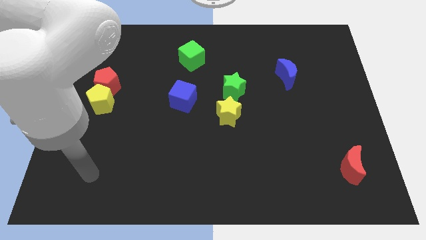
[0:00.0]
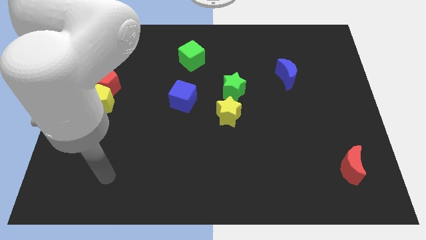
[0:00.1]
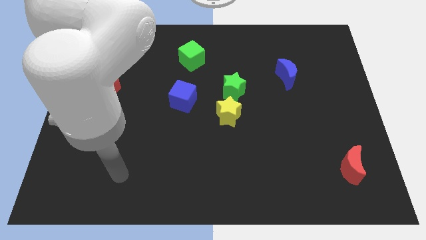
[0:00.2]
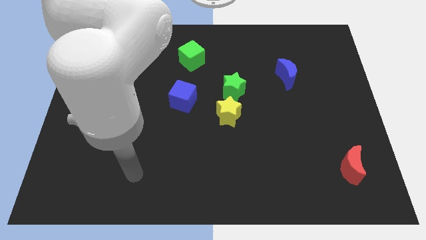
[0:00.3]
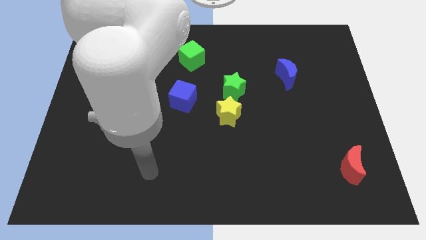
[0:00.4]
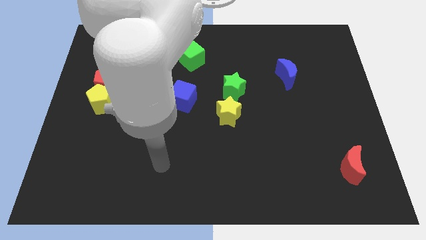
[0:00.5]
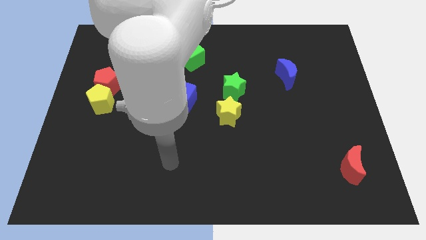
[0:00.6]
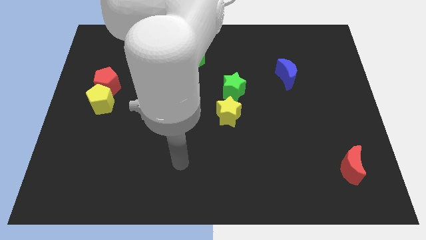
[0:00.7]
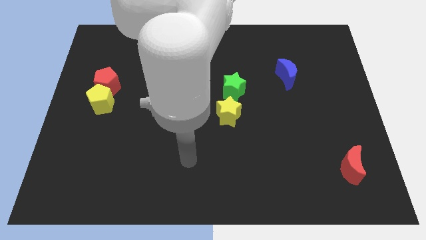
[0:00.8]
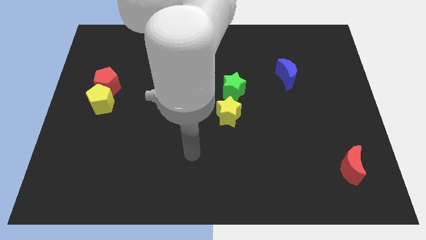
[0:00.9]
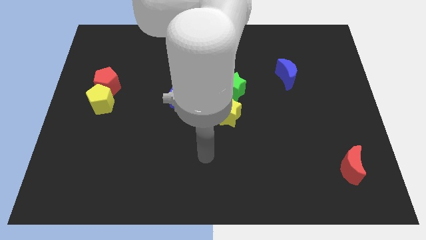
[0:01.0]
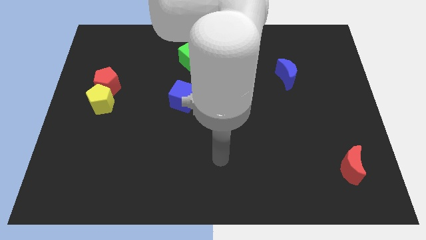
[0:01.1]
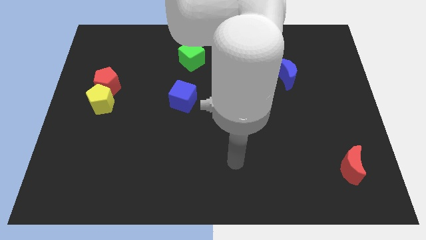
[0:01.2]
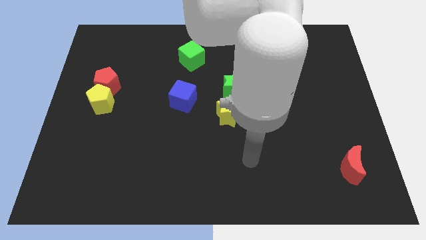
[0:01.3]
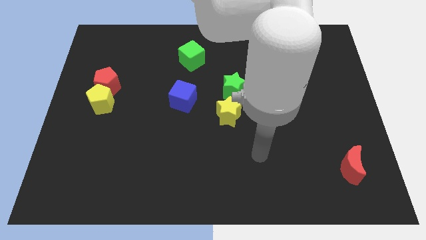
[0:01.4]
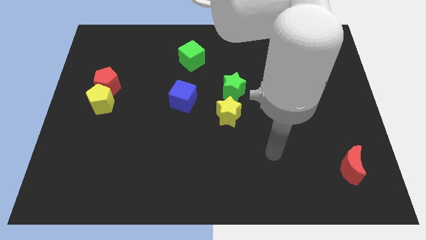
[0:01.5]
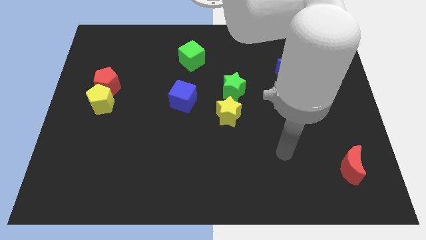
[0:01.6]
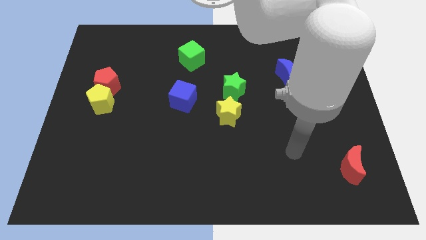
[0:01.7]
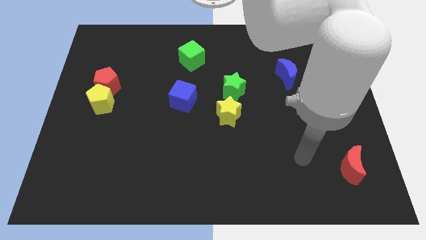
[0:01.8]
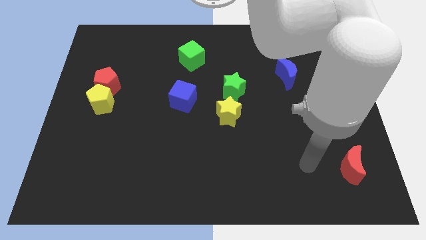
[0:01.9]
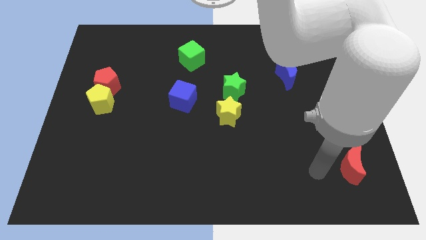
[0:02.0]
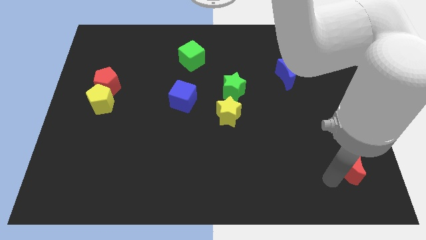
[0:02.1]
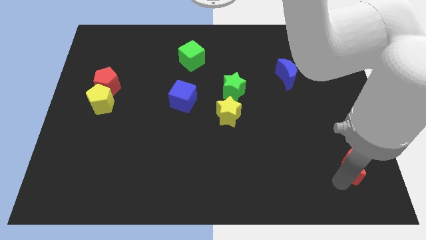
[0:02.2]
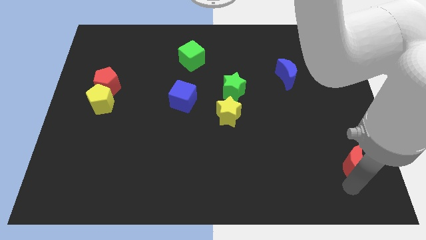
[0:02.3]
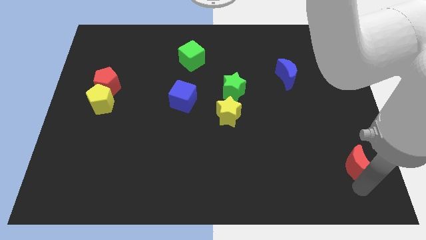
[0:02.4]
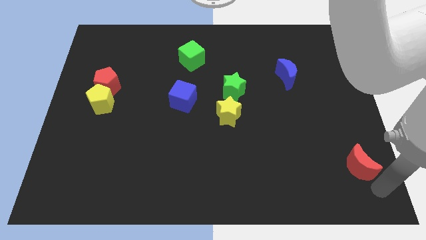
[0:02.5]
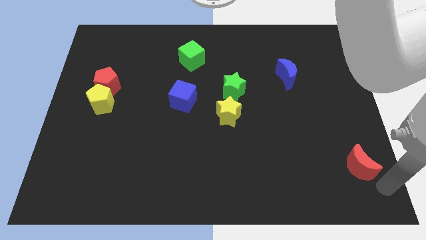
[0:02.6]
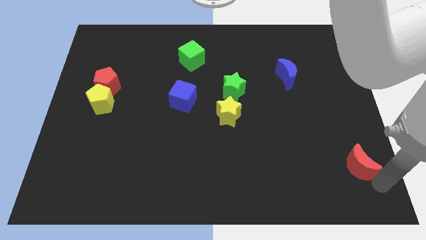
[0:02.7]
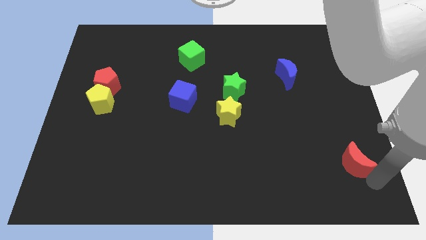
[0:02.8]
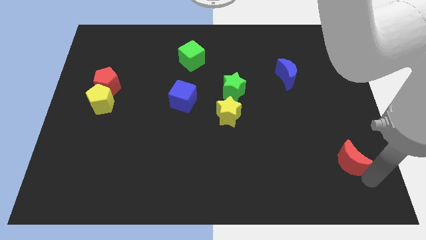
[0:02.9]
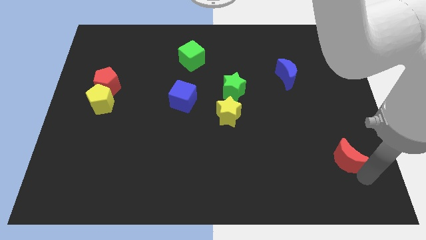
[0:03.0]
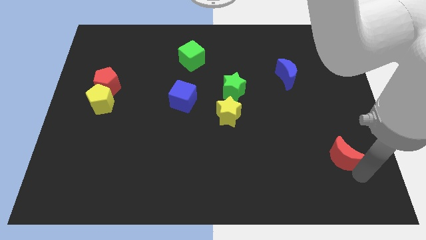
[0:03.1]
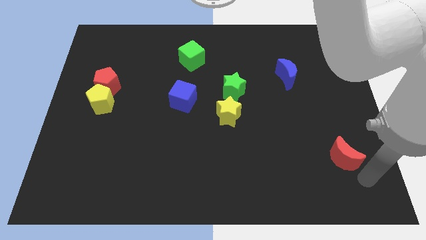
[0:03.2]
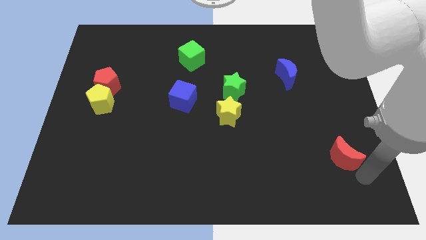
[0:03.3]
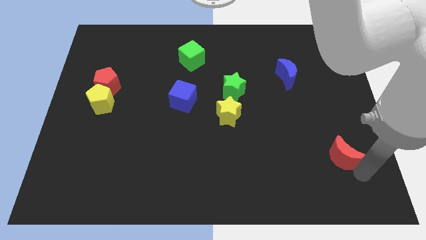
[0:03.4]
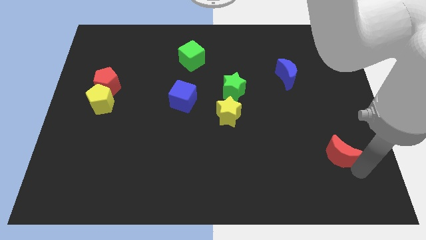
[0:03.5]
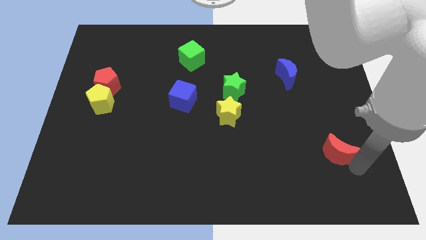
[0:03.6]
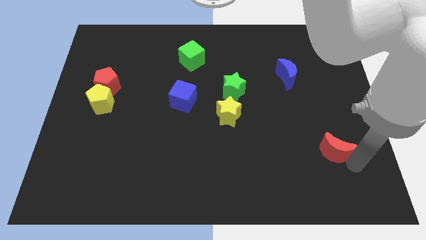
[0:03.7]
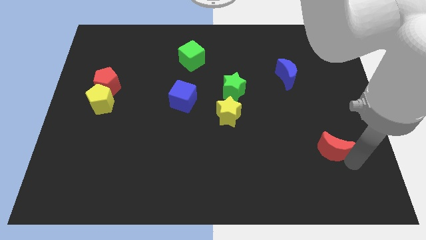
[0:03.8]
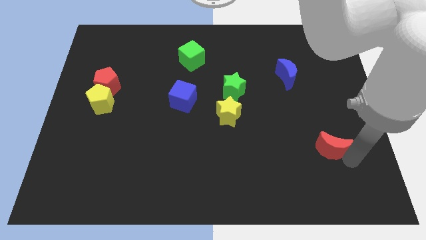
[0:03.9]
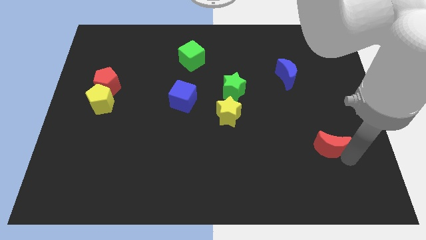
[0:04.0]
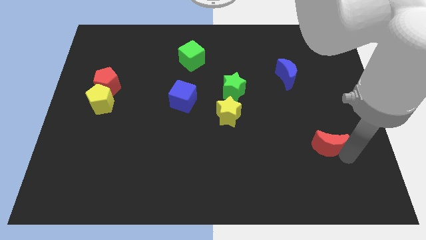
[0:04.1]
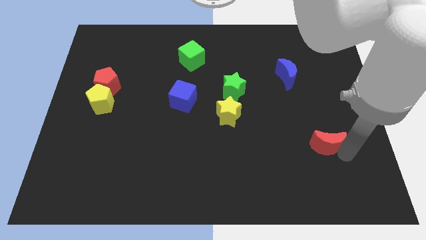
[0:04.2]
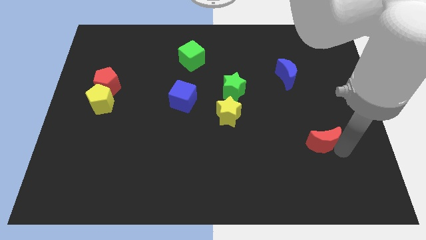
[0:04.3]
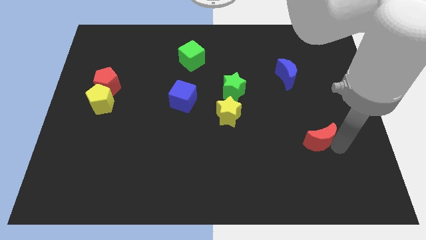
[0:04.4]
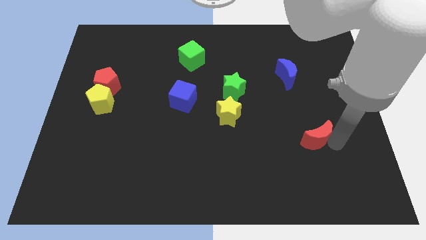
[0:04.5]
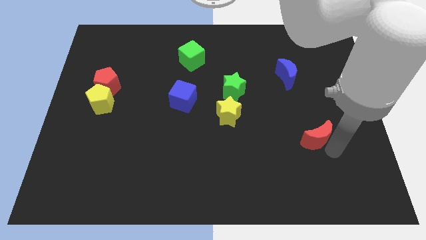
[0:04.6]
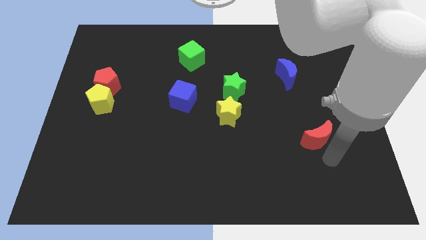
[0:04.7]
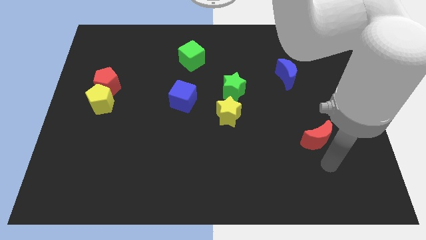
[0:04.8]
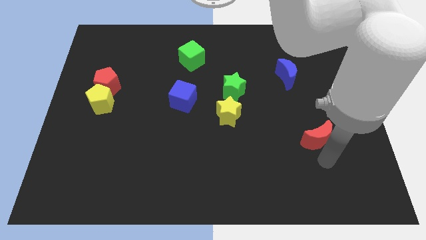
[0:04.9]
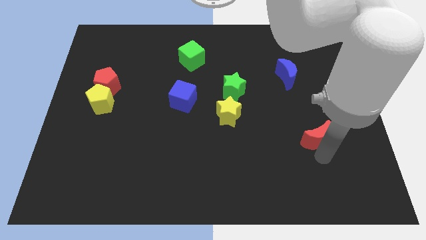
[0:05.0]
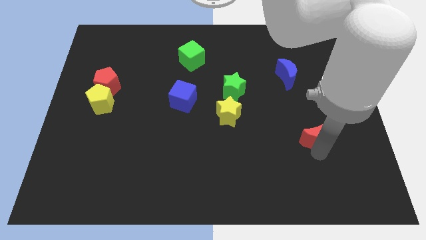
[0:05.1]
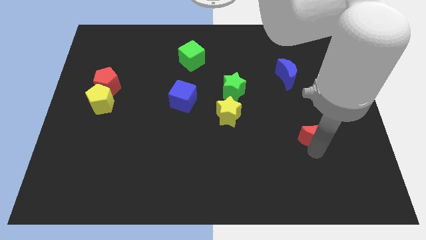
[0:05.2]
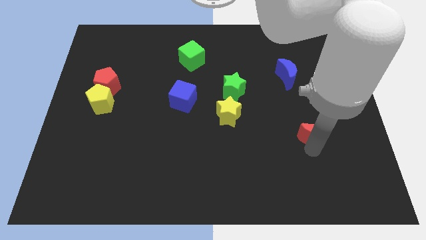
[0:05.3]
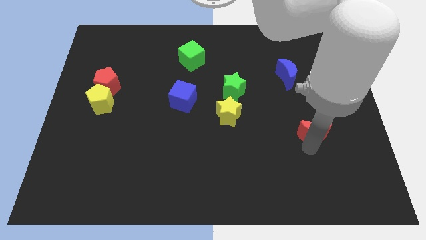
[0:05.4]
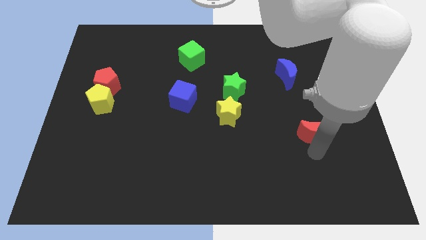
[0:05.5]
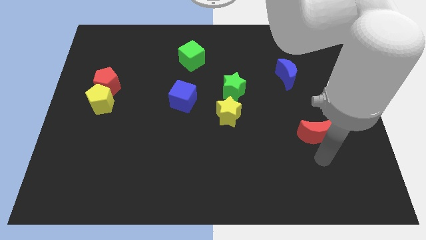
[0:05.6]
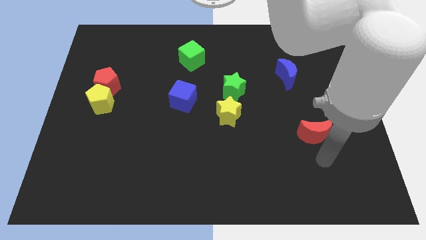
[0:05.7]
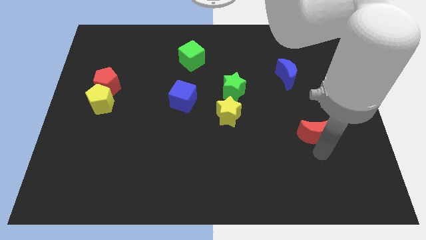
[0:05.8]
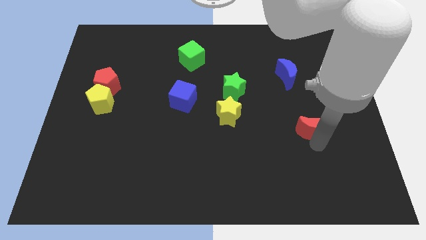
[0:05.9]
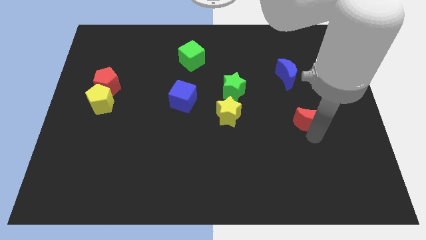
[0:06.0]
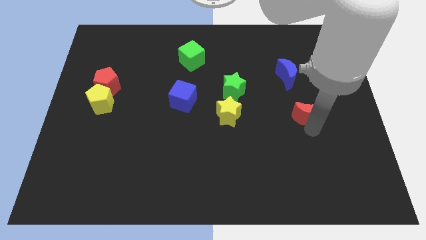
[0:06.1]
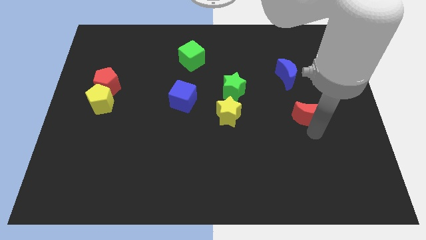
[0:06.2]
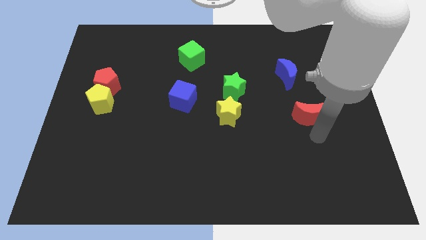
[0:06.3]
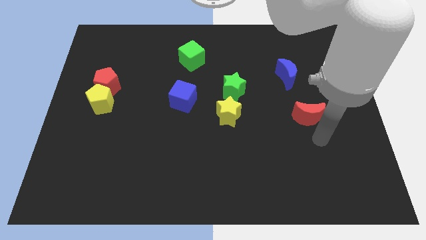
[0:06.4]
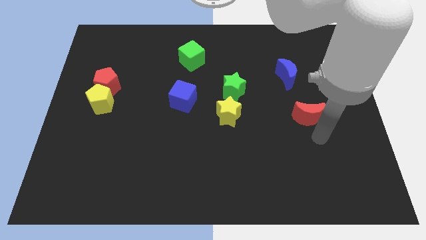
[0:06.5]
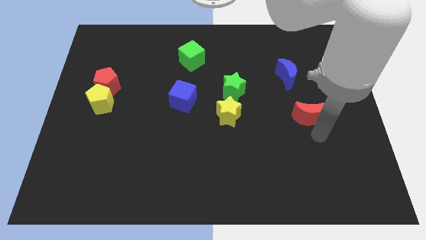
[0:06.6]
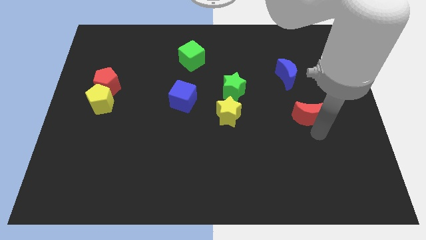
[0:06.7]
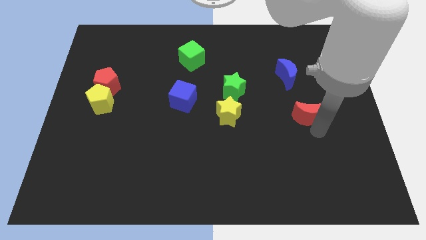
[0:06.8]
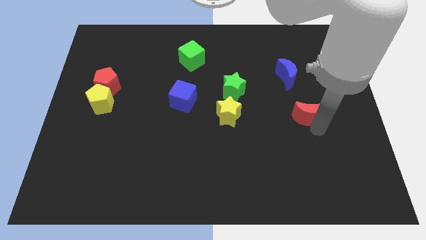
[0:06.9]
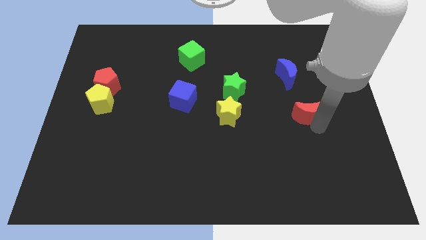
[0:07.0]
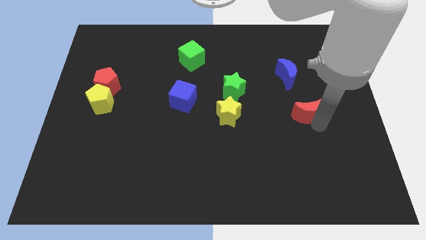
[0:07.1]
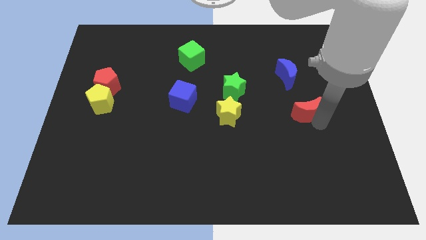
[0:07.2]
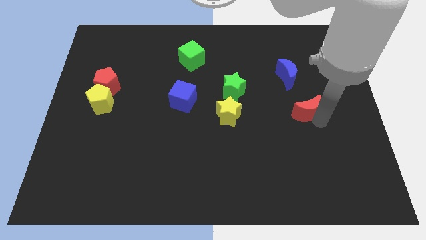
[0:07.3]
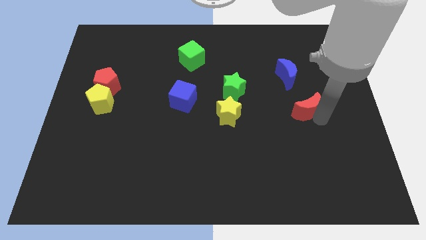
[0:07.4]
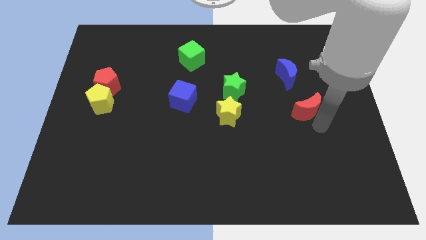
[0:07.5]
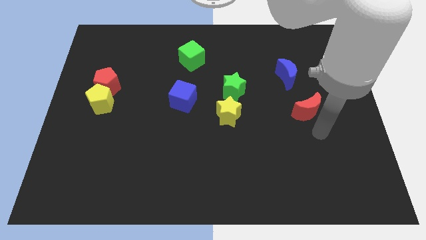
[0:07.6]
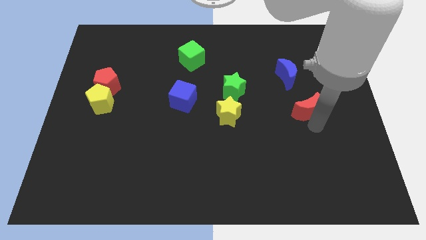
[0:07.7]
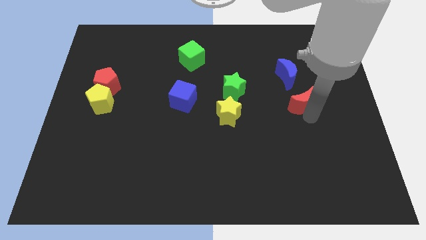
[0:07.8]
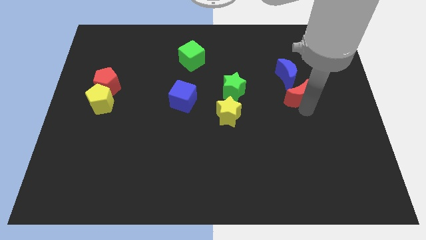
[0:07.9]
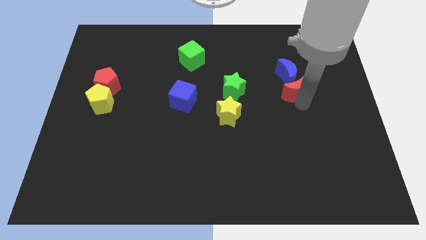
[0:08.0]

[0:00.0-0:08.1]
push the red moon next to the blue moon
